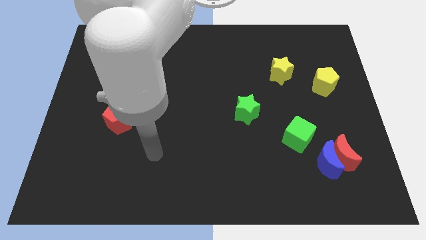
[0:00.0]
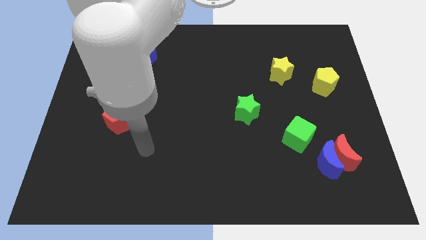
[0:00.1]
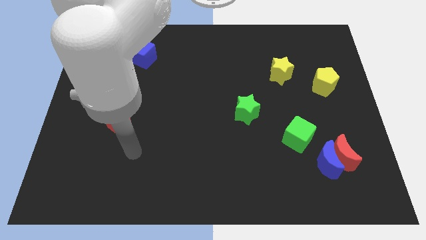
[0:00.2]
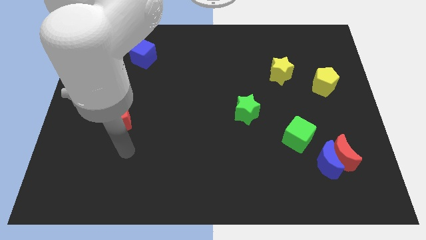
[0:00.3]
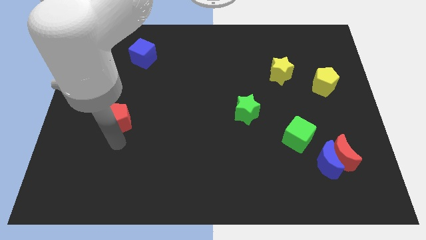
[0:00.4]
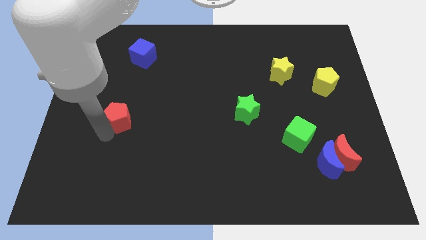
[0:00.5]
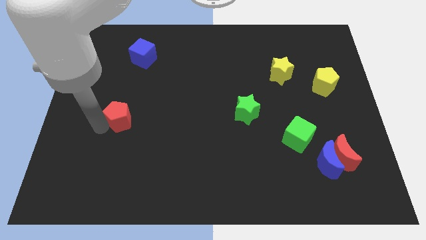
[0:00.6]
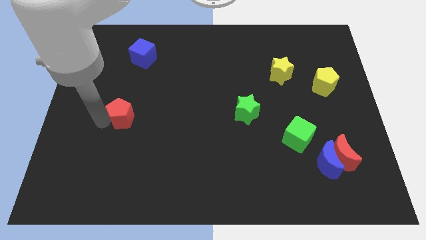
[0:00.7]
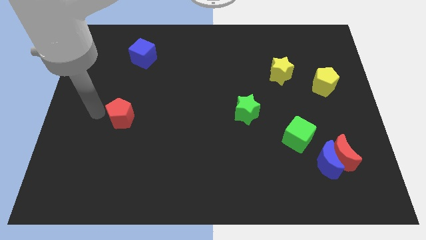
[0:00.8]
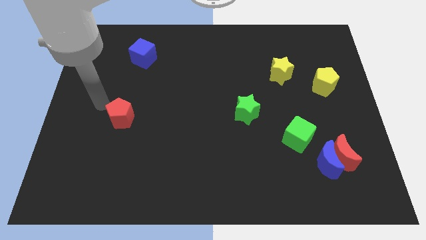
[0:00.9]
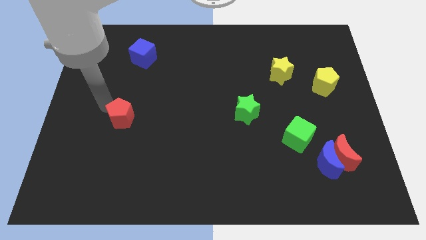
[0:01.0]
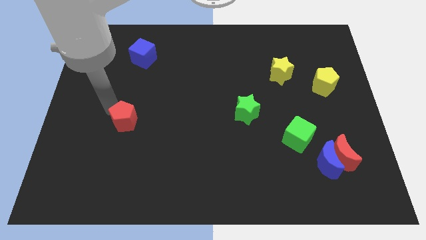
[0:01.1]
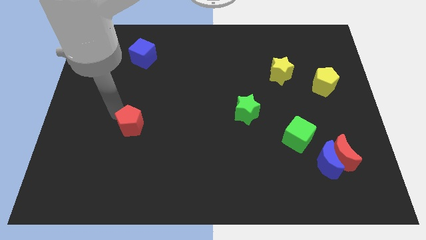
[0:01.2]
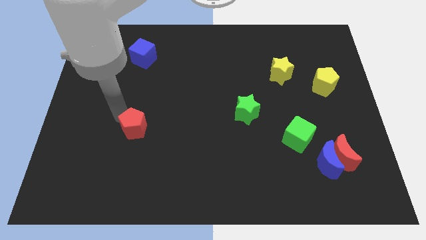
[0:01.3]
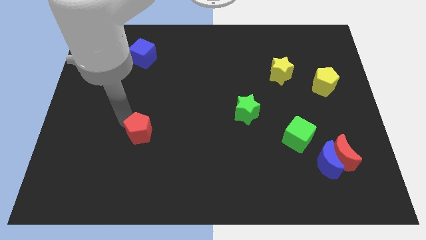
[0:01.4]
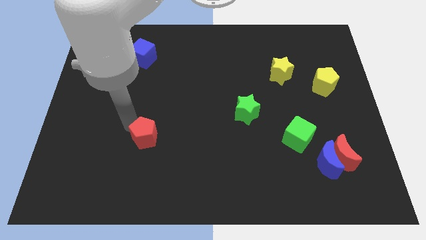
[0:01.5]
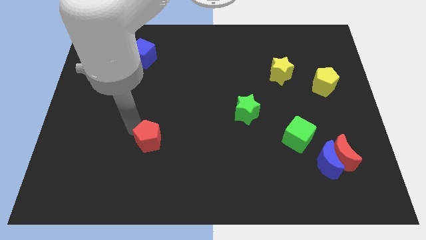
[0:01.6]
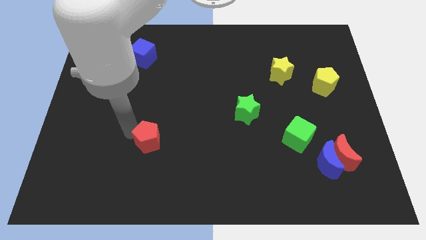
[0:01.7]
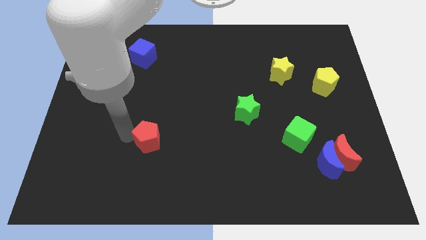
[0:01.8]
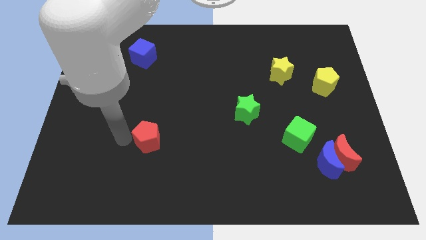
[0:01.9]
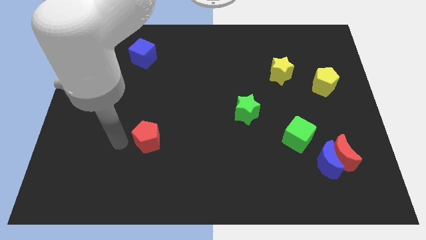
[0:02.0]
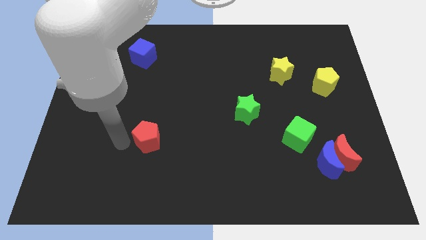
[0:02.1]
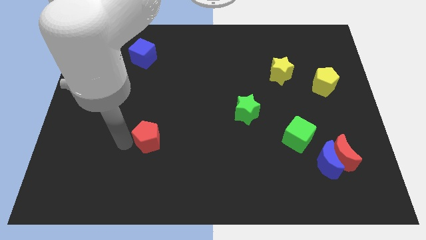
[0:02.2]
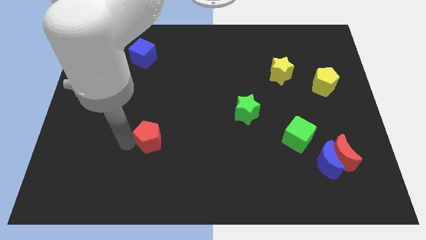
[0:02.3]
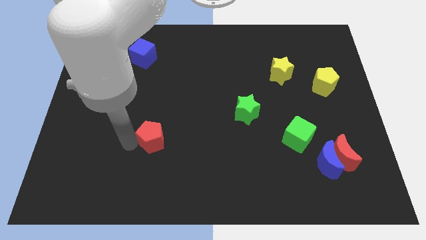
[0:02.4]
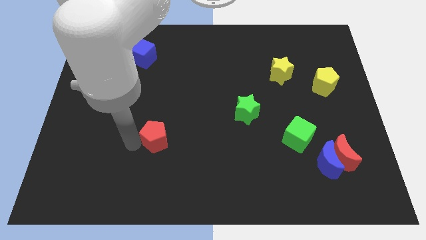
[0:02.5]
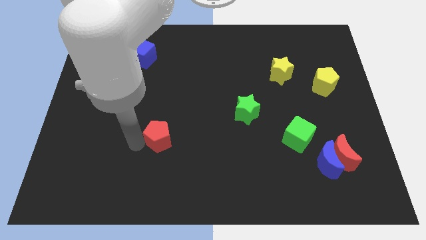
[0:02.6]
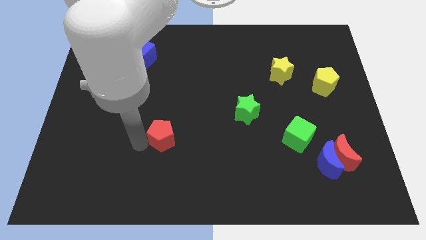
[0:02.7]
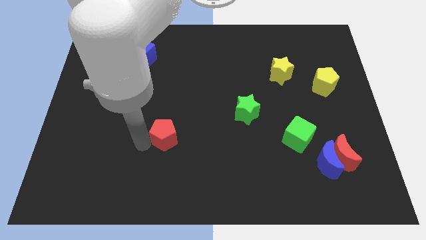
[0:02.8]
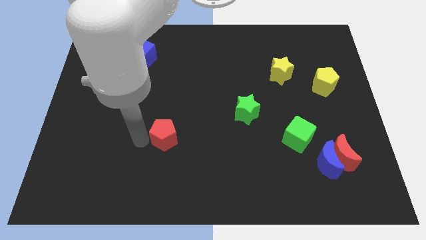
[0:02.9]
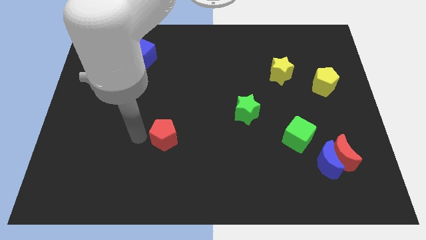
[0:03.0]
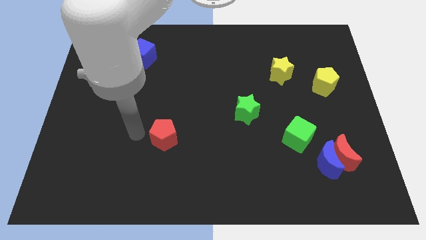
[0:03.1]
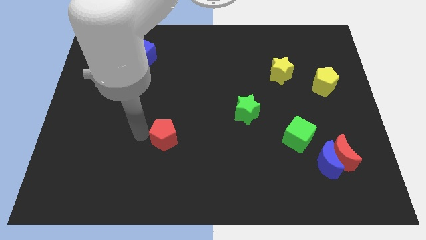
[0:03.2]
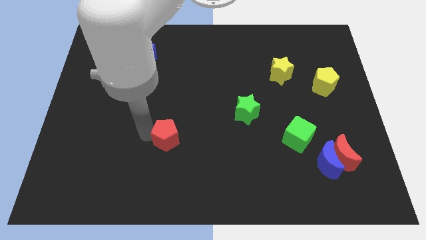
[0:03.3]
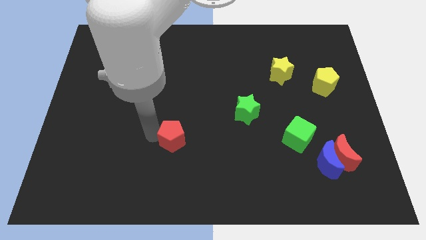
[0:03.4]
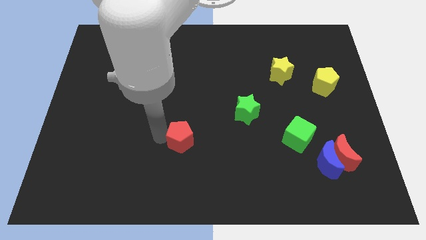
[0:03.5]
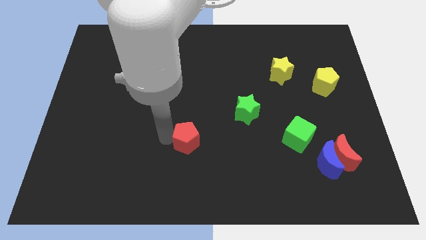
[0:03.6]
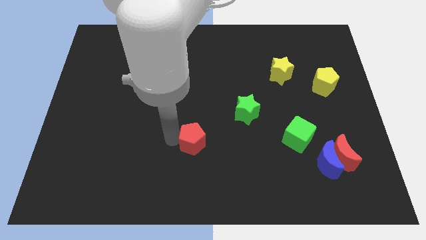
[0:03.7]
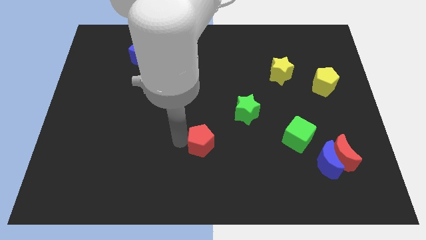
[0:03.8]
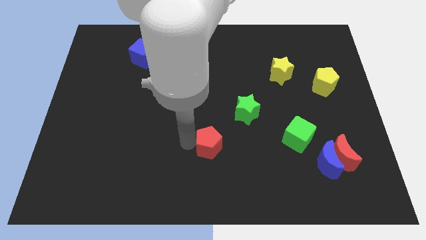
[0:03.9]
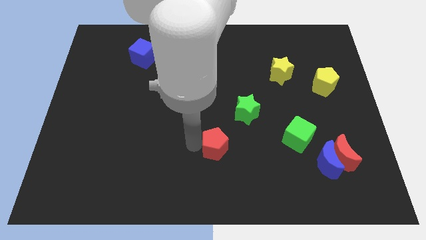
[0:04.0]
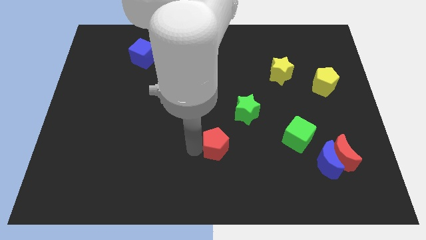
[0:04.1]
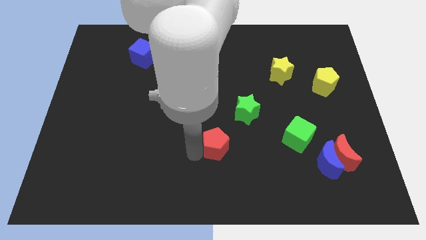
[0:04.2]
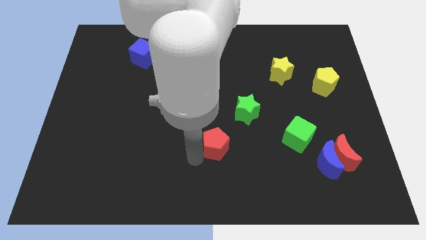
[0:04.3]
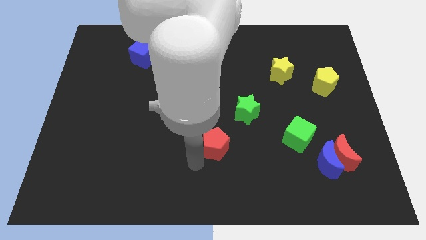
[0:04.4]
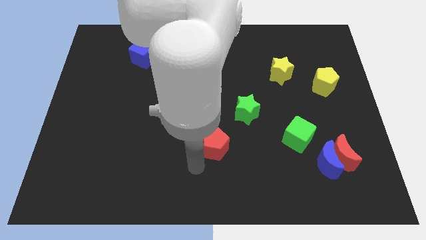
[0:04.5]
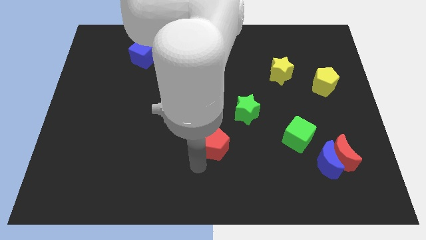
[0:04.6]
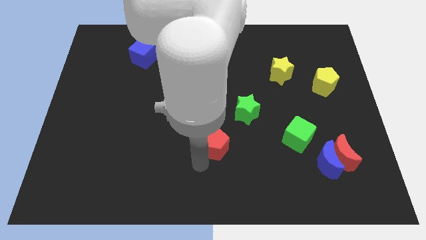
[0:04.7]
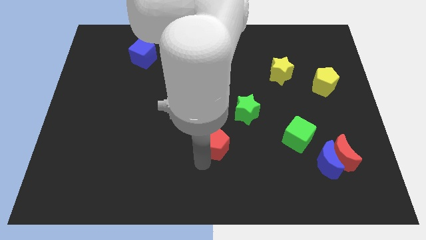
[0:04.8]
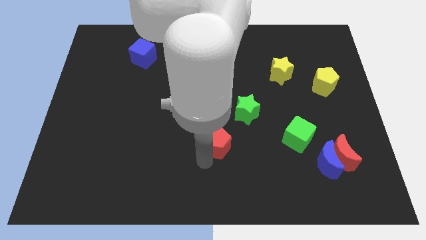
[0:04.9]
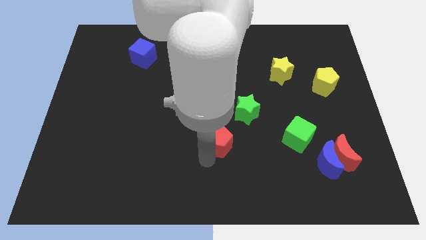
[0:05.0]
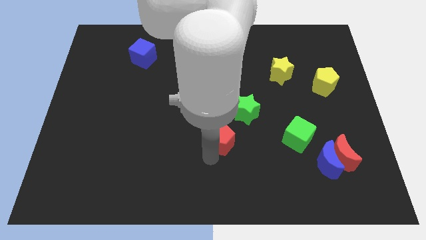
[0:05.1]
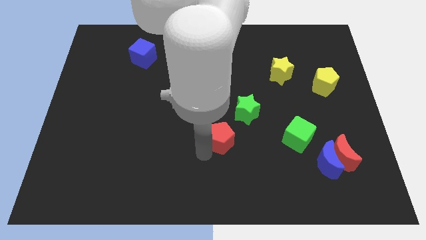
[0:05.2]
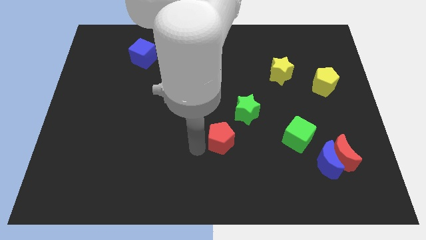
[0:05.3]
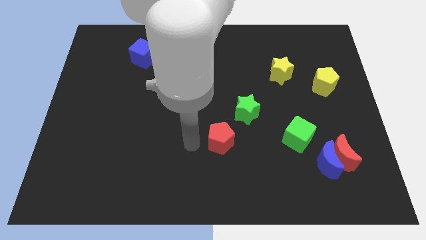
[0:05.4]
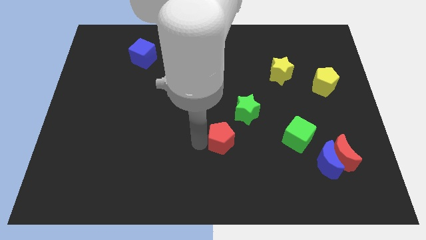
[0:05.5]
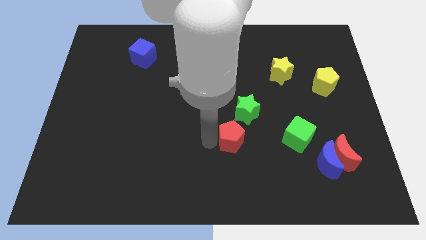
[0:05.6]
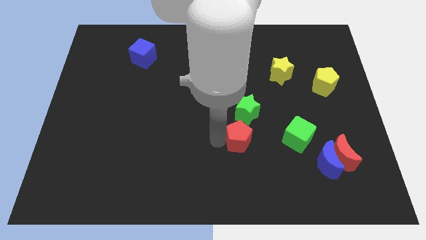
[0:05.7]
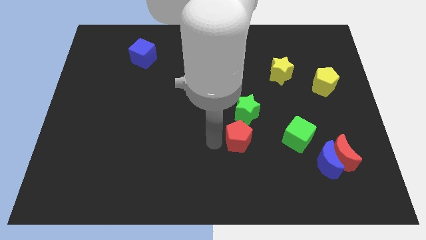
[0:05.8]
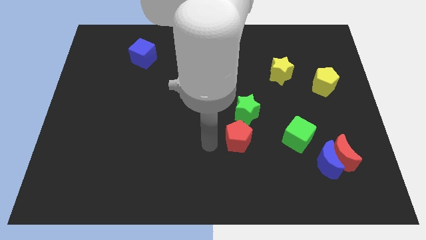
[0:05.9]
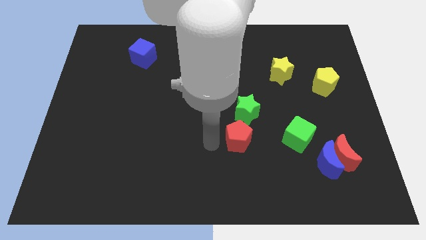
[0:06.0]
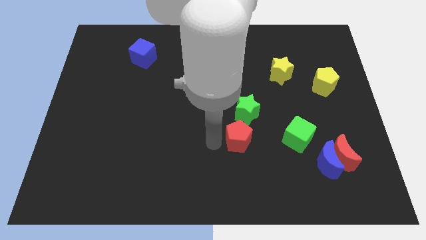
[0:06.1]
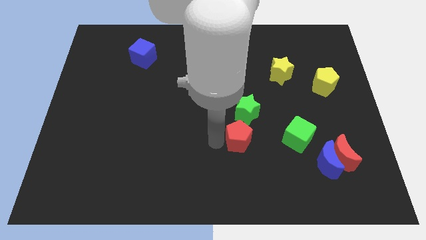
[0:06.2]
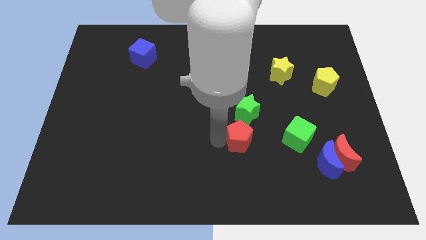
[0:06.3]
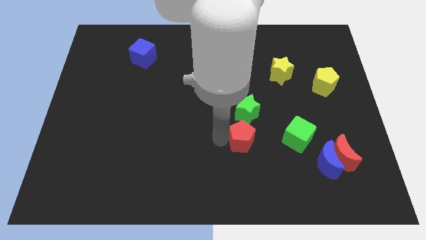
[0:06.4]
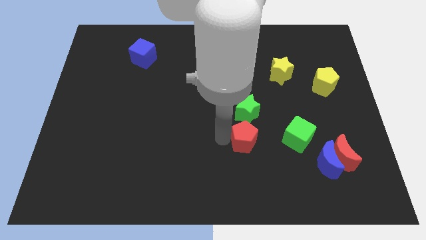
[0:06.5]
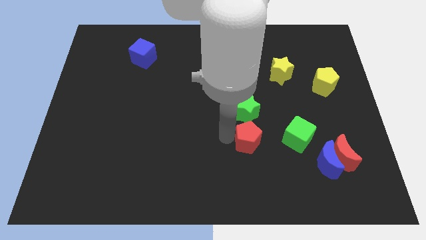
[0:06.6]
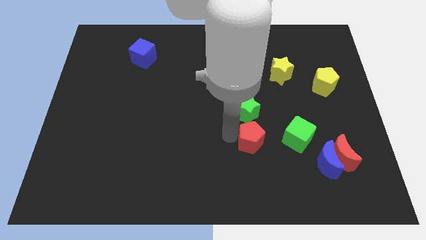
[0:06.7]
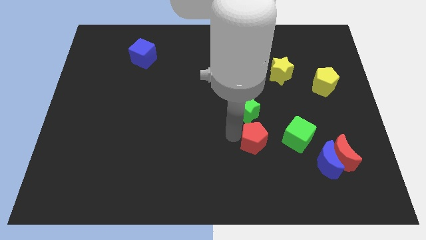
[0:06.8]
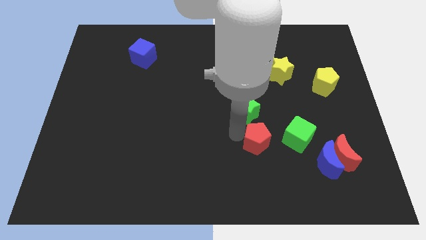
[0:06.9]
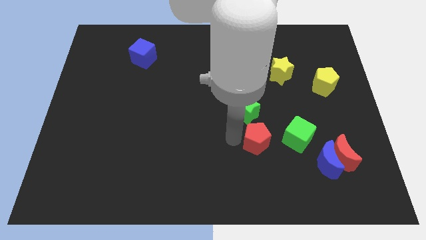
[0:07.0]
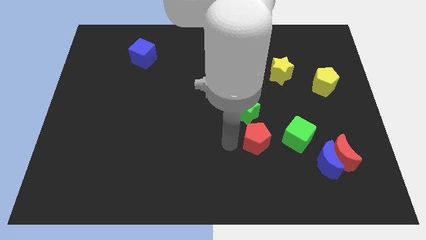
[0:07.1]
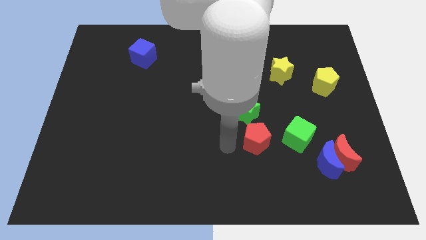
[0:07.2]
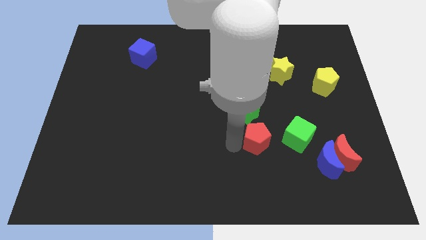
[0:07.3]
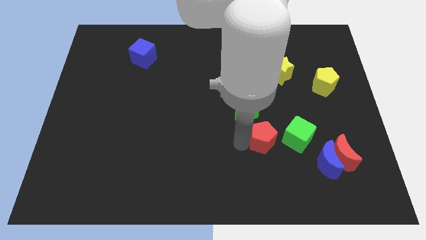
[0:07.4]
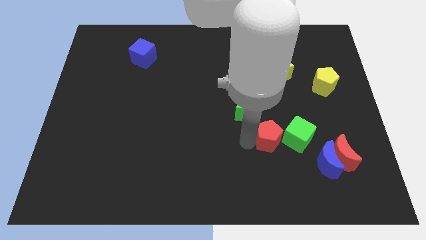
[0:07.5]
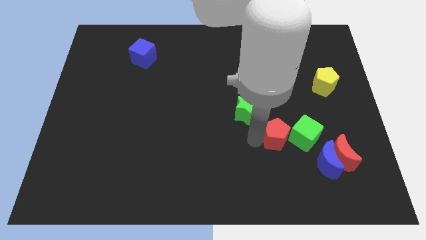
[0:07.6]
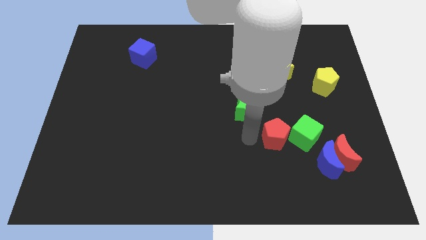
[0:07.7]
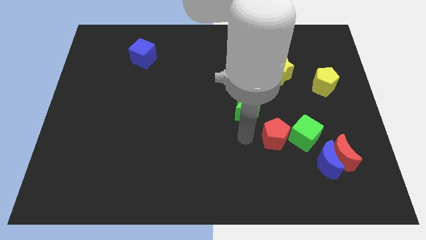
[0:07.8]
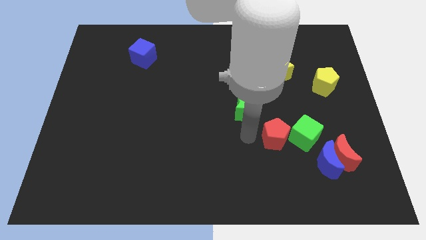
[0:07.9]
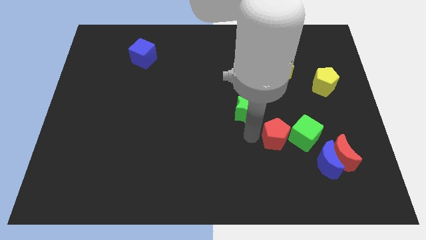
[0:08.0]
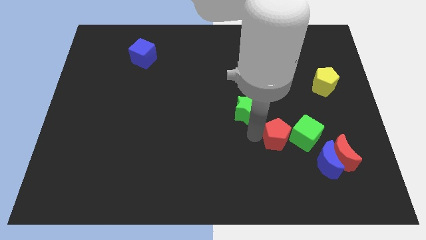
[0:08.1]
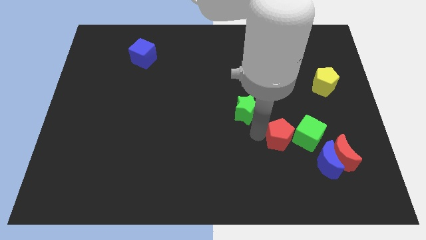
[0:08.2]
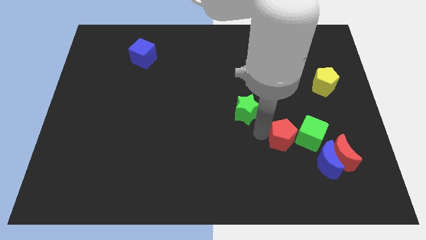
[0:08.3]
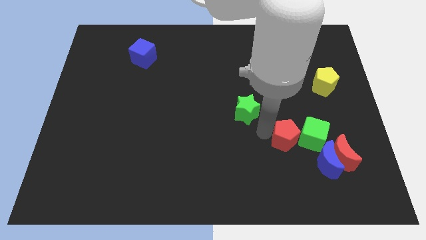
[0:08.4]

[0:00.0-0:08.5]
put the red pentagon close to the green cube
